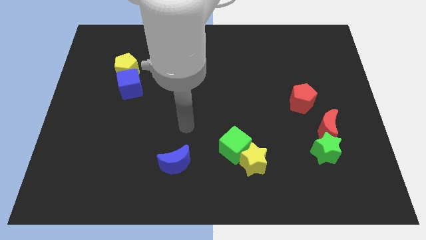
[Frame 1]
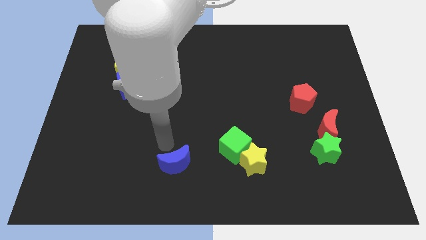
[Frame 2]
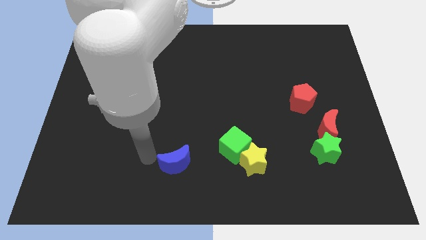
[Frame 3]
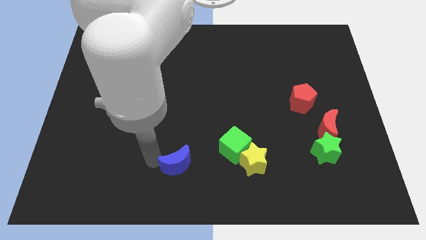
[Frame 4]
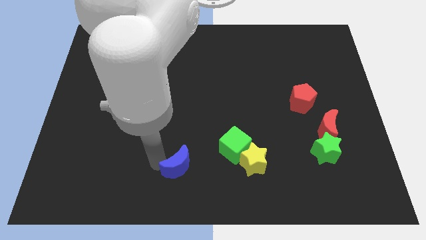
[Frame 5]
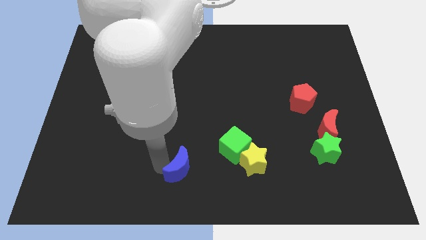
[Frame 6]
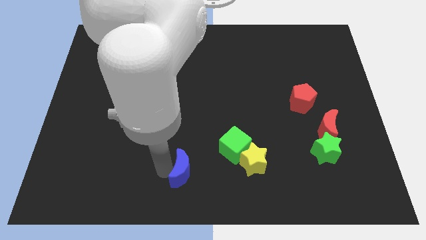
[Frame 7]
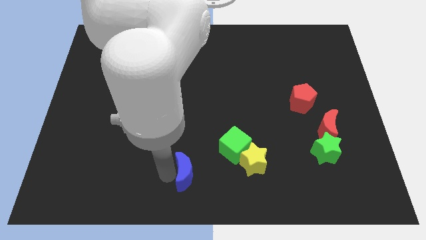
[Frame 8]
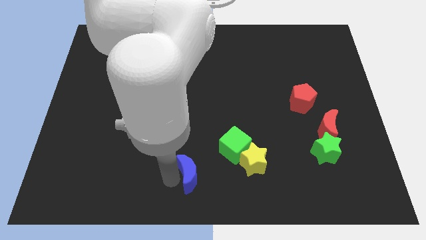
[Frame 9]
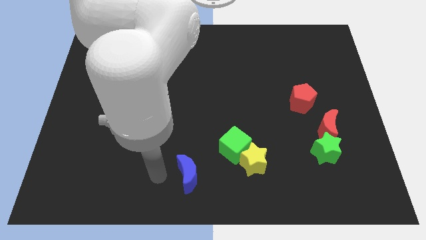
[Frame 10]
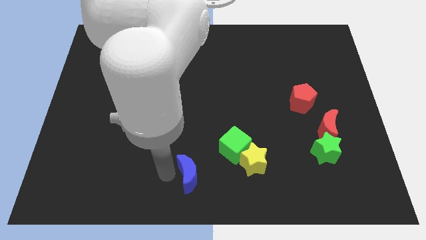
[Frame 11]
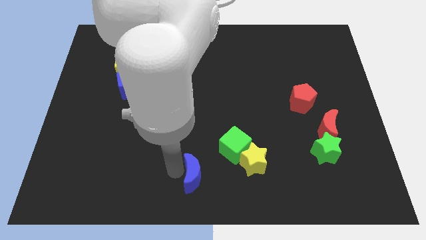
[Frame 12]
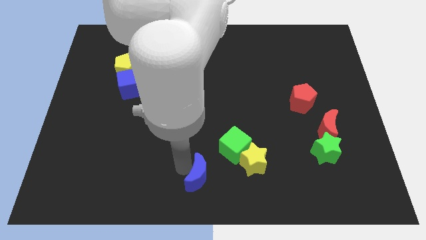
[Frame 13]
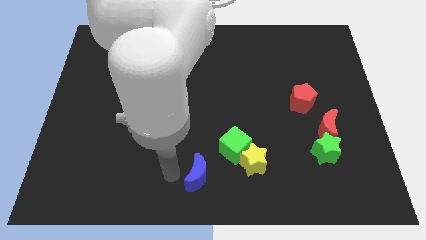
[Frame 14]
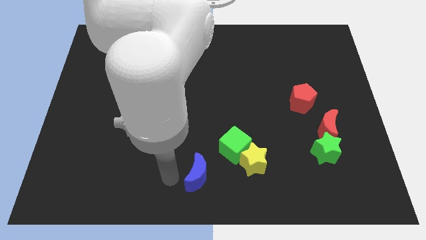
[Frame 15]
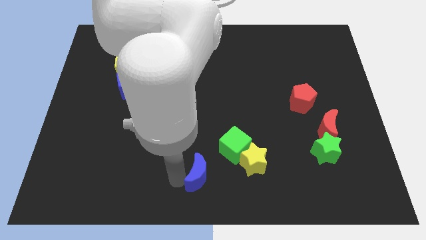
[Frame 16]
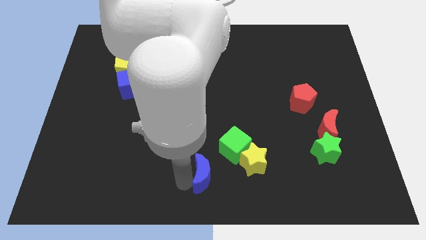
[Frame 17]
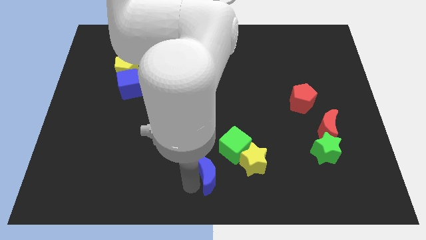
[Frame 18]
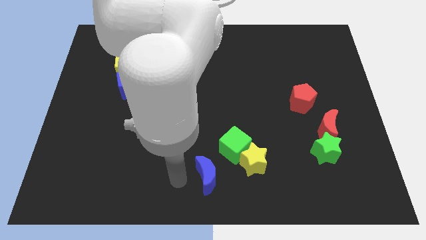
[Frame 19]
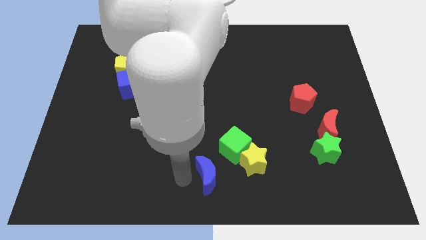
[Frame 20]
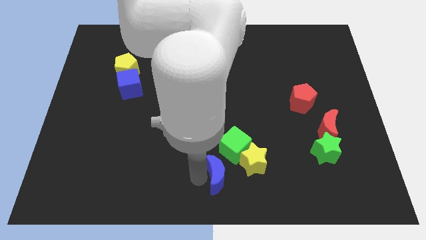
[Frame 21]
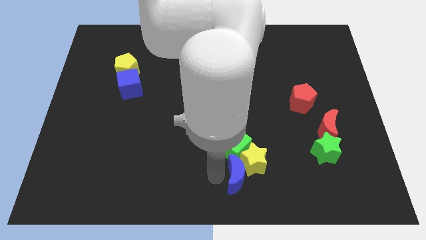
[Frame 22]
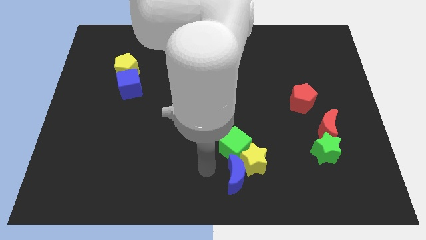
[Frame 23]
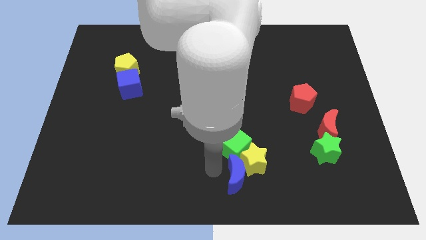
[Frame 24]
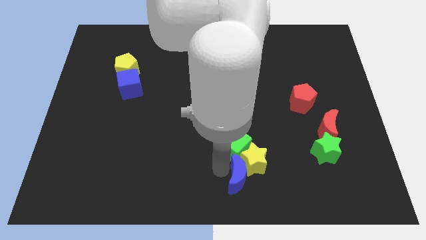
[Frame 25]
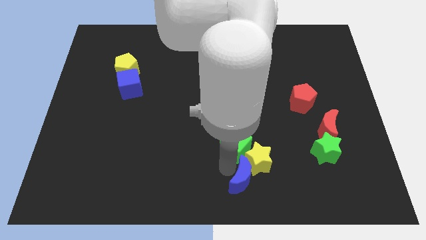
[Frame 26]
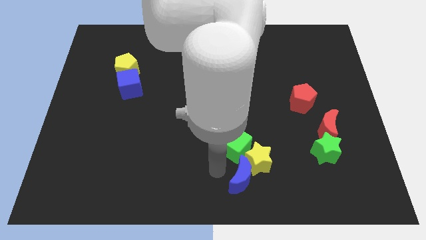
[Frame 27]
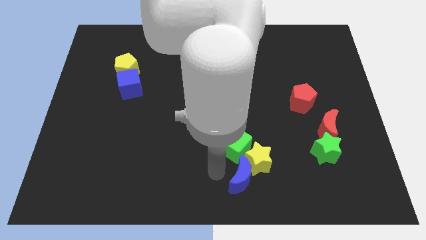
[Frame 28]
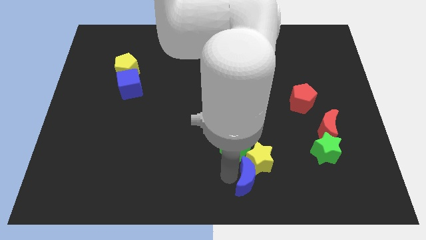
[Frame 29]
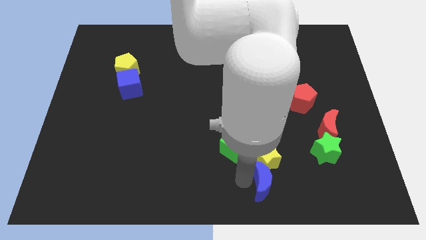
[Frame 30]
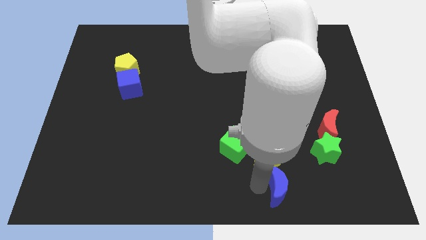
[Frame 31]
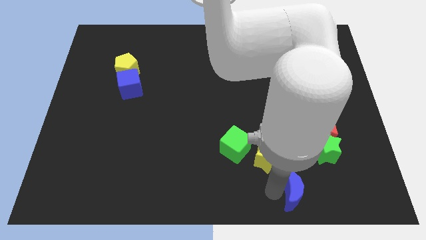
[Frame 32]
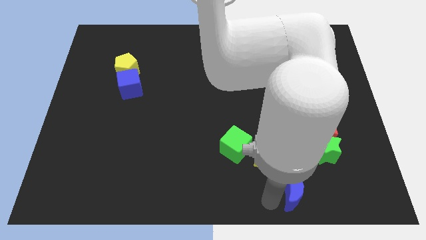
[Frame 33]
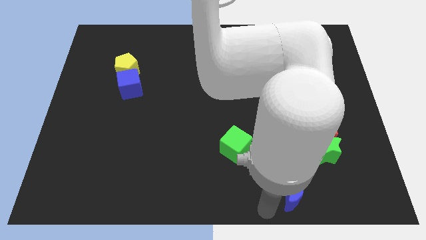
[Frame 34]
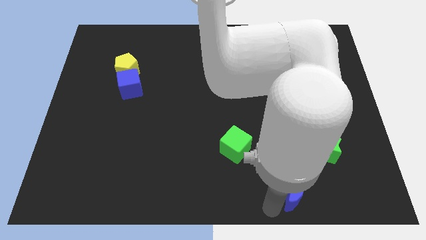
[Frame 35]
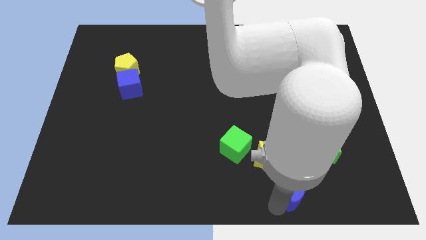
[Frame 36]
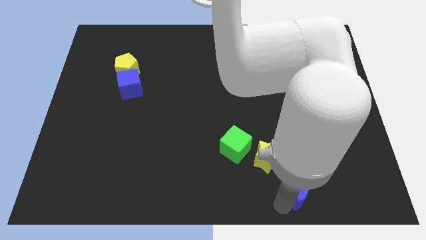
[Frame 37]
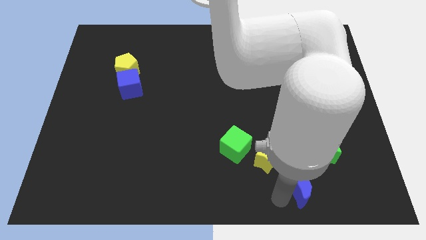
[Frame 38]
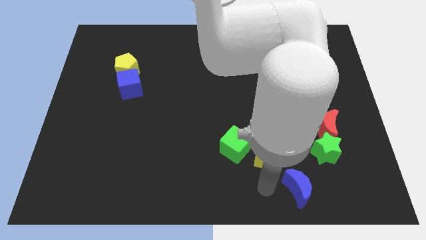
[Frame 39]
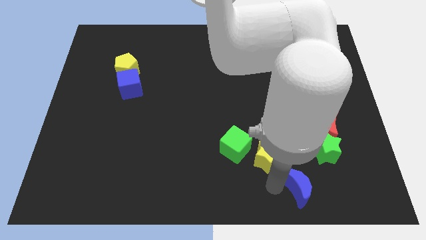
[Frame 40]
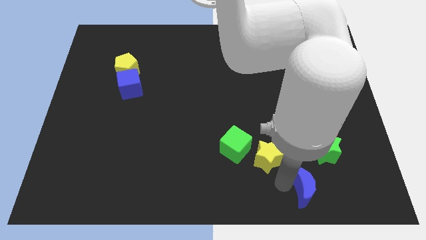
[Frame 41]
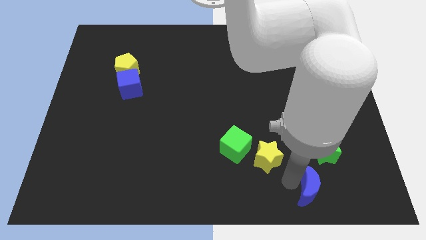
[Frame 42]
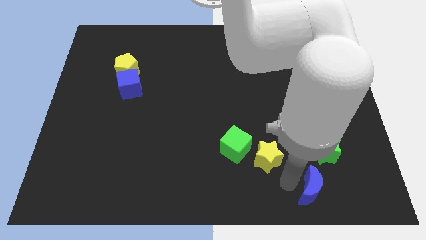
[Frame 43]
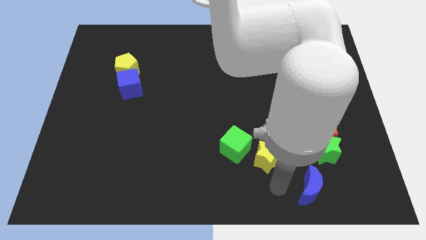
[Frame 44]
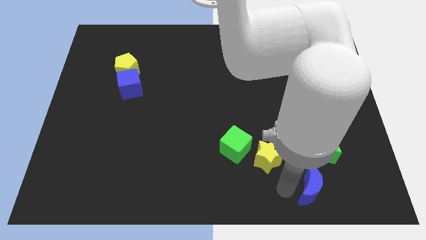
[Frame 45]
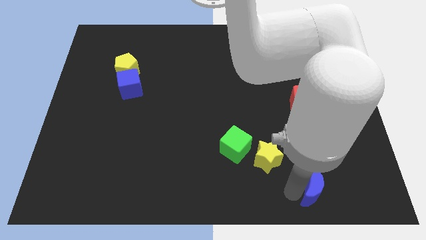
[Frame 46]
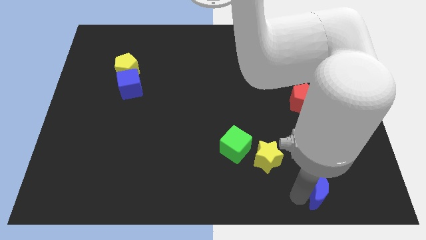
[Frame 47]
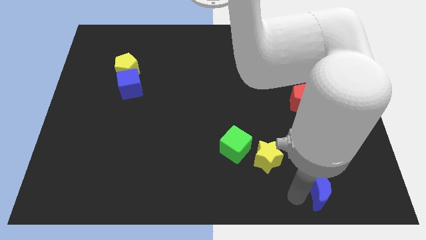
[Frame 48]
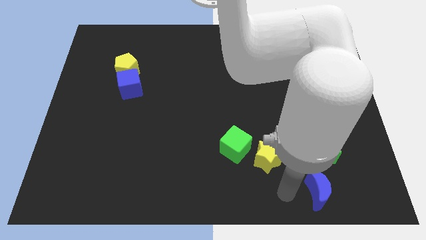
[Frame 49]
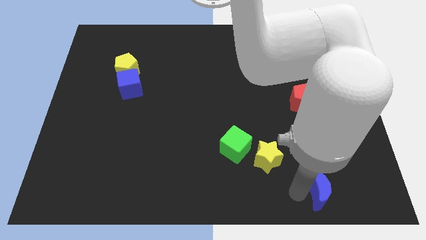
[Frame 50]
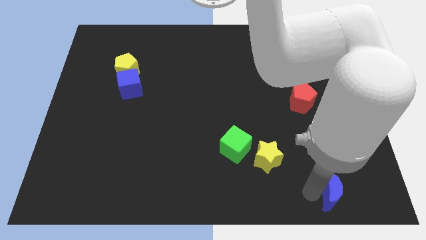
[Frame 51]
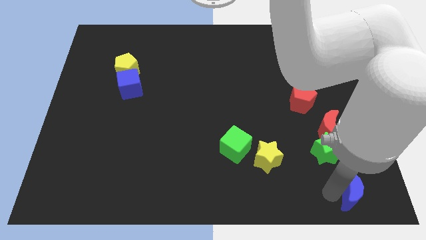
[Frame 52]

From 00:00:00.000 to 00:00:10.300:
put the blue moon to the bottom right

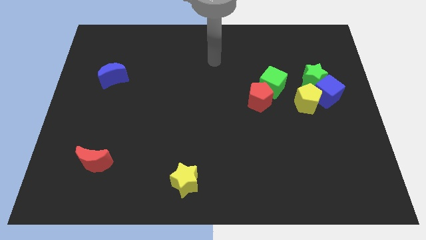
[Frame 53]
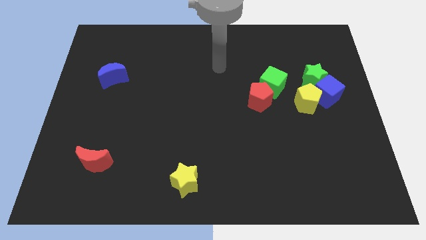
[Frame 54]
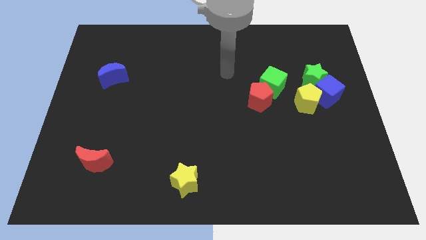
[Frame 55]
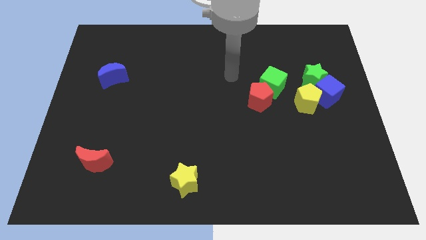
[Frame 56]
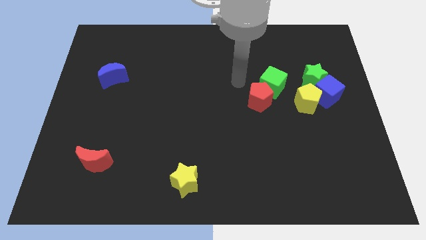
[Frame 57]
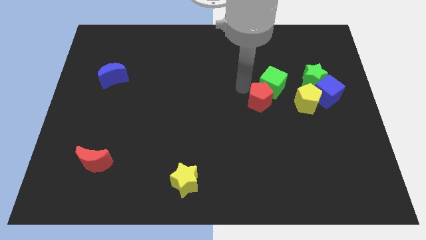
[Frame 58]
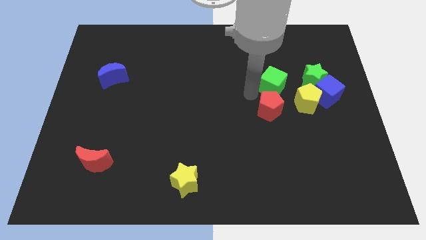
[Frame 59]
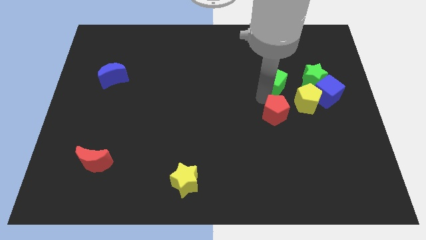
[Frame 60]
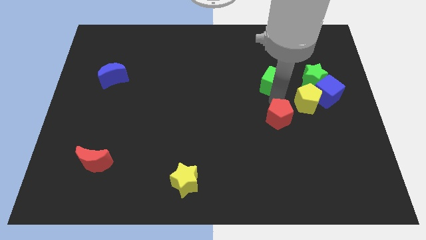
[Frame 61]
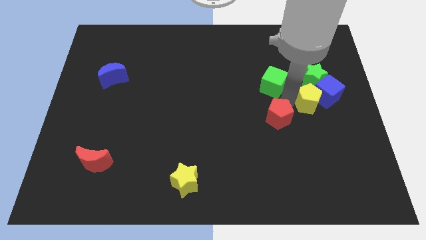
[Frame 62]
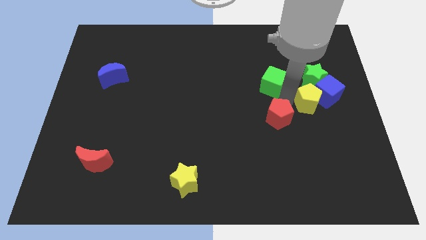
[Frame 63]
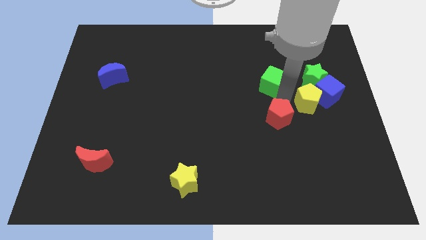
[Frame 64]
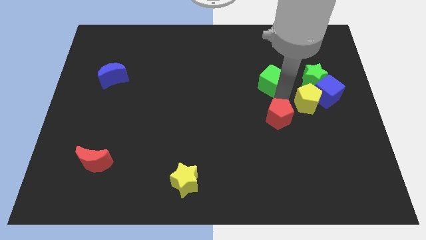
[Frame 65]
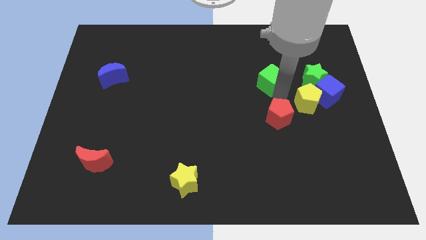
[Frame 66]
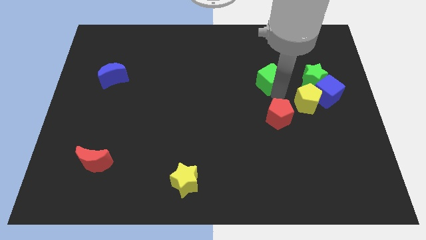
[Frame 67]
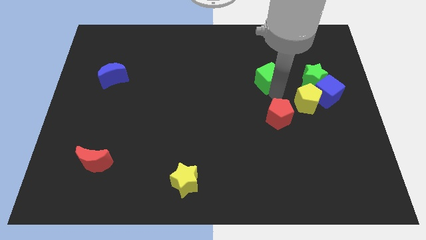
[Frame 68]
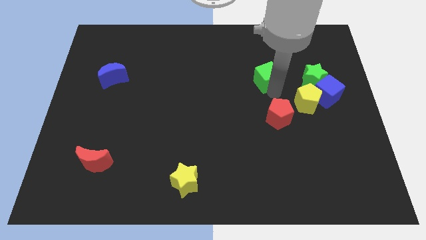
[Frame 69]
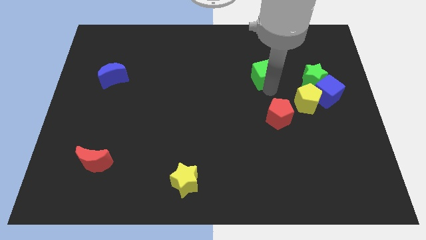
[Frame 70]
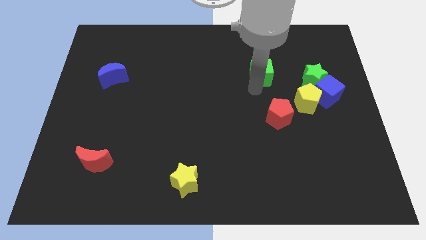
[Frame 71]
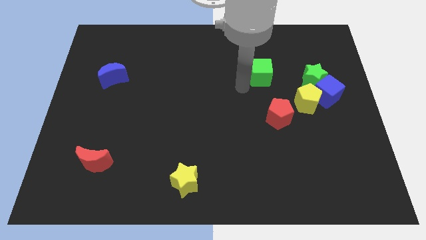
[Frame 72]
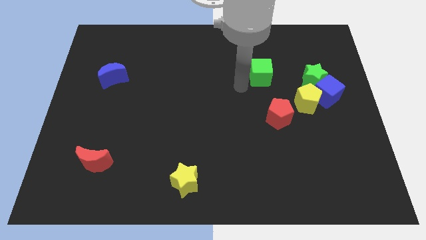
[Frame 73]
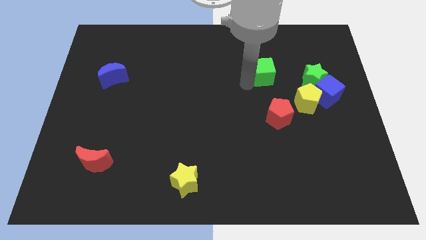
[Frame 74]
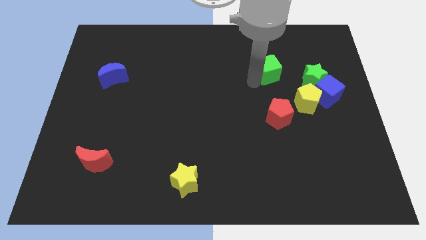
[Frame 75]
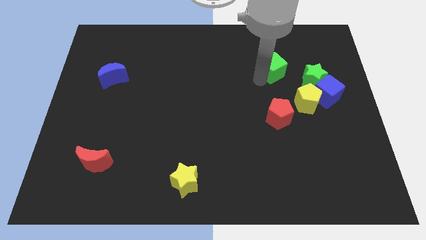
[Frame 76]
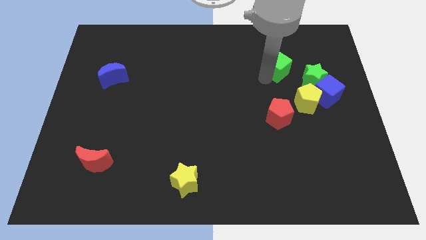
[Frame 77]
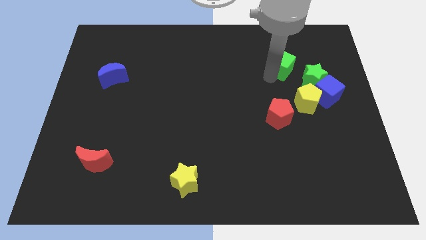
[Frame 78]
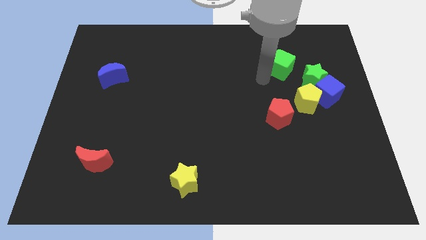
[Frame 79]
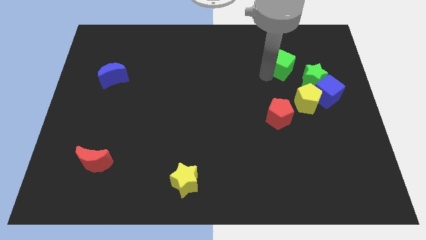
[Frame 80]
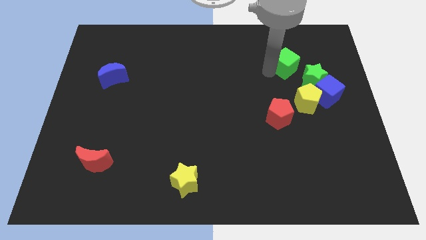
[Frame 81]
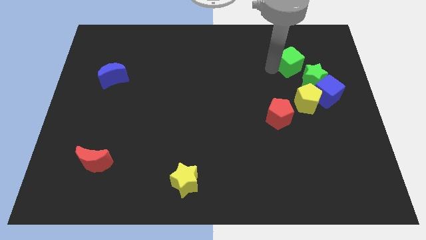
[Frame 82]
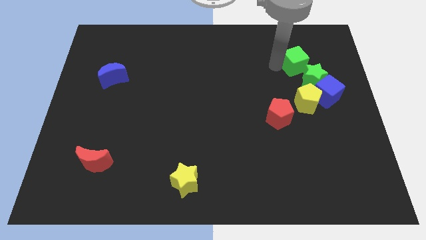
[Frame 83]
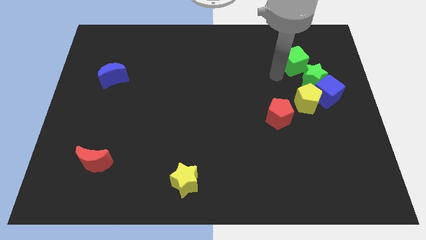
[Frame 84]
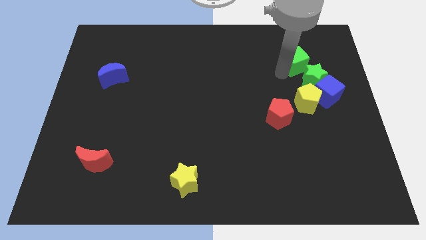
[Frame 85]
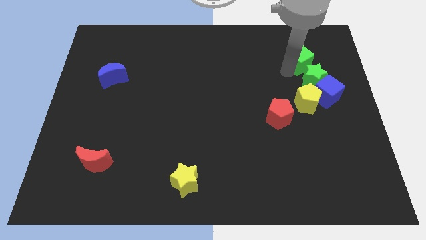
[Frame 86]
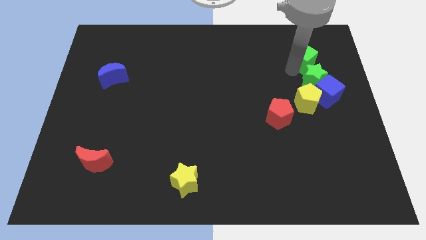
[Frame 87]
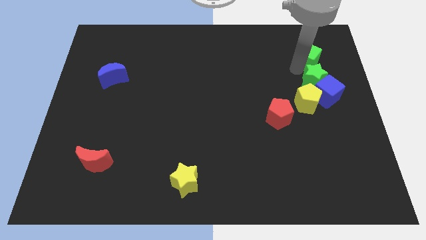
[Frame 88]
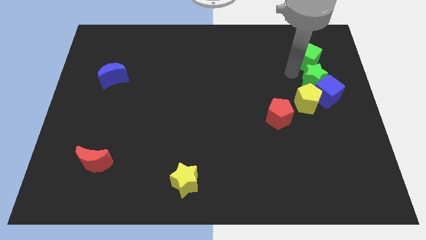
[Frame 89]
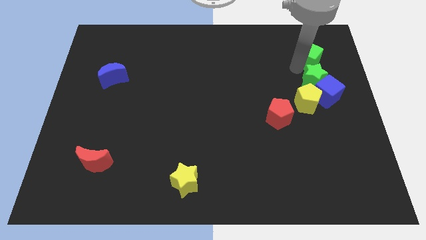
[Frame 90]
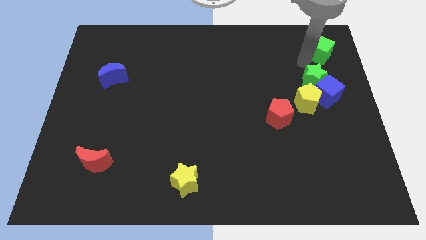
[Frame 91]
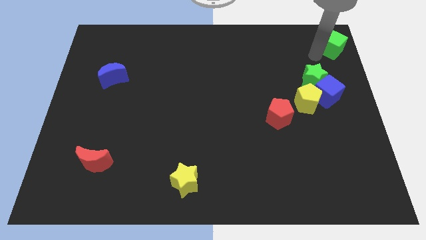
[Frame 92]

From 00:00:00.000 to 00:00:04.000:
put the green cube to the top right of the board
